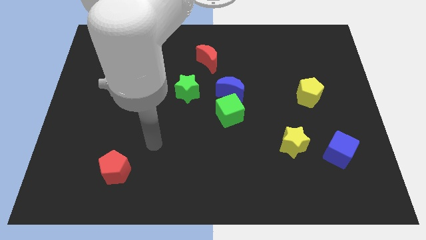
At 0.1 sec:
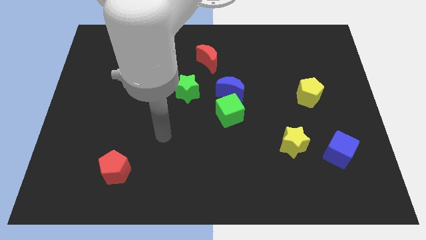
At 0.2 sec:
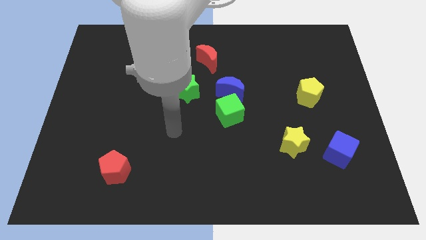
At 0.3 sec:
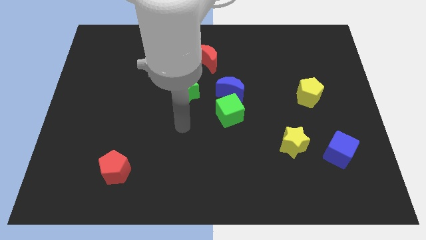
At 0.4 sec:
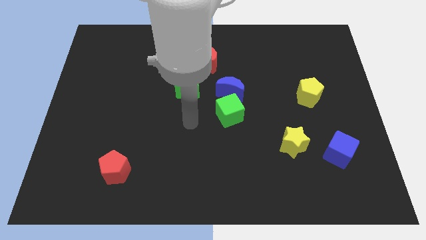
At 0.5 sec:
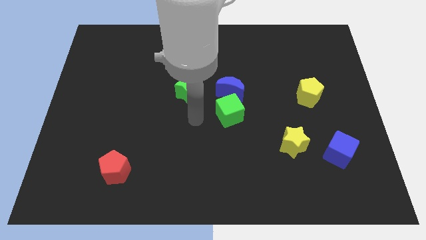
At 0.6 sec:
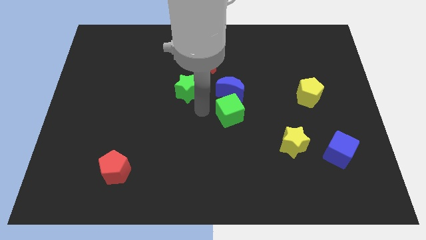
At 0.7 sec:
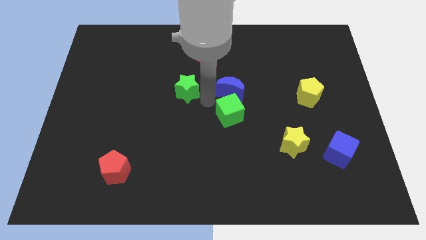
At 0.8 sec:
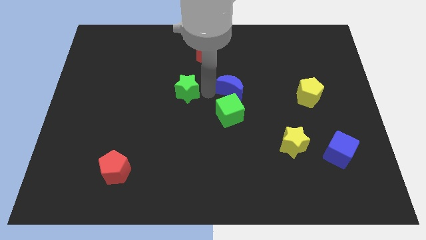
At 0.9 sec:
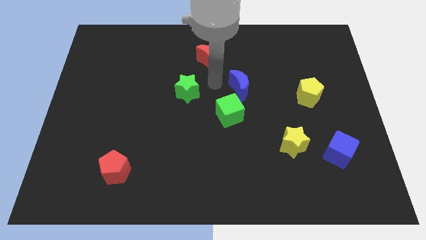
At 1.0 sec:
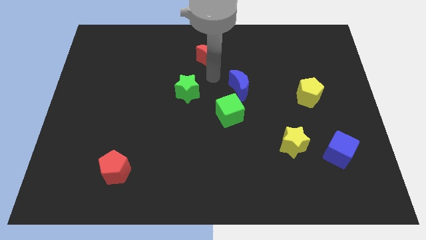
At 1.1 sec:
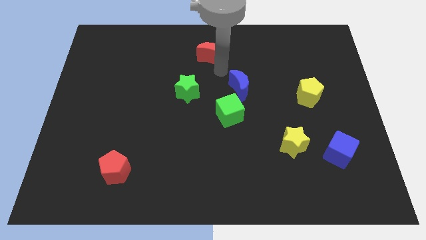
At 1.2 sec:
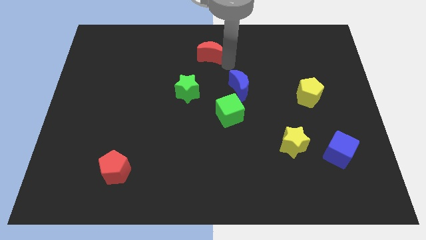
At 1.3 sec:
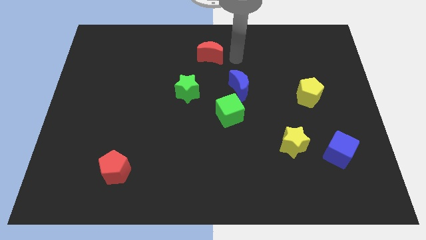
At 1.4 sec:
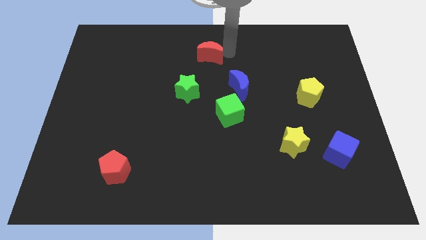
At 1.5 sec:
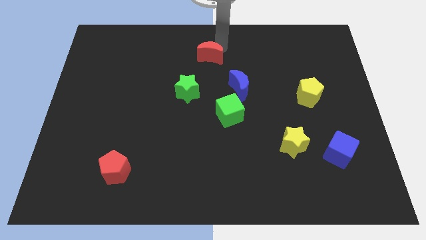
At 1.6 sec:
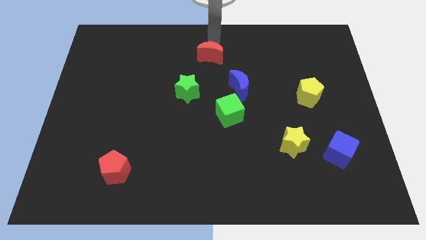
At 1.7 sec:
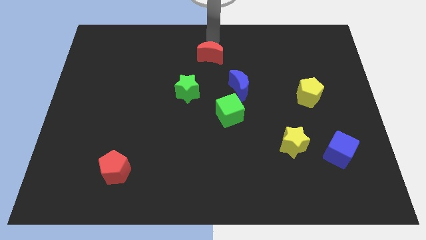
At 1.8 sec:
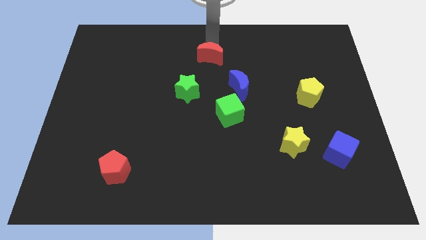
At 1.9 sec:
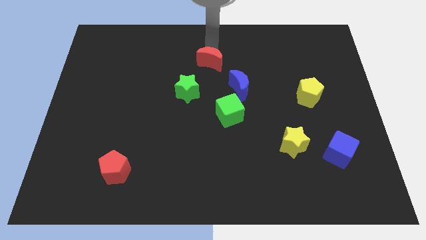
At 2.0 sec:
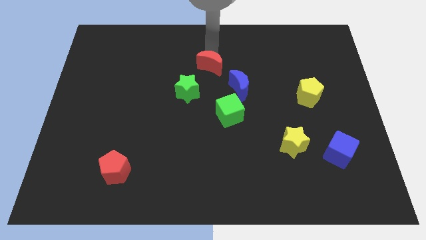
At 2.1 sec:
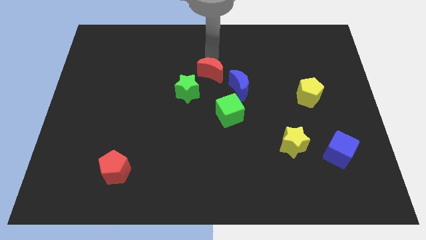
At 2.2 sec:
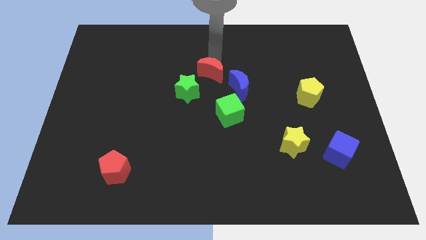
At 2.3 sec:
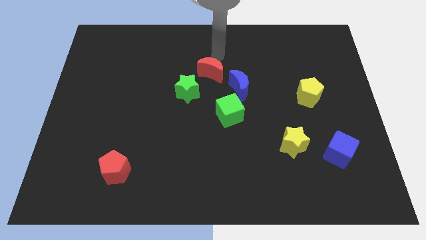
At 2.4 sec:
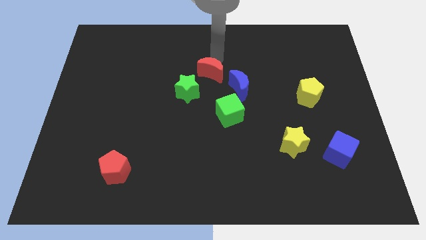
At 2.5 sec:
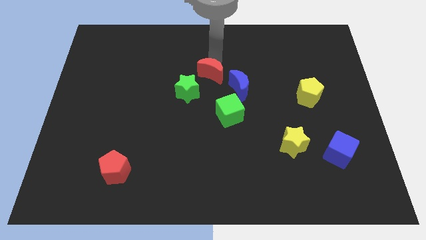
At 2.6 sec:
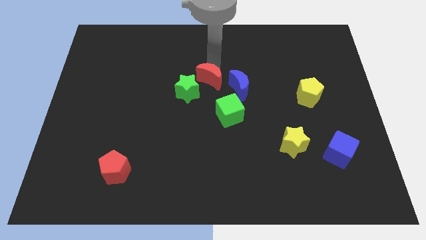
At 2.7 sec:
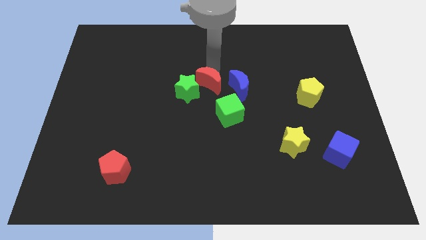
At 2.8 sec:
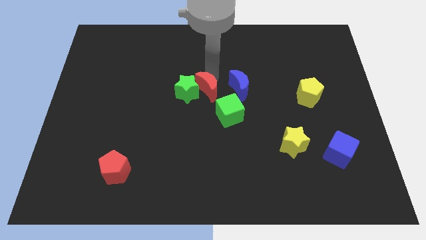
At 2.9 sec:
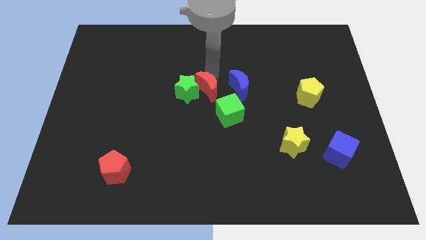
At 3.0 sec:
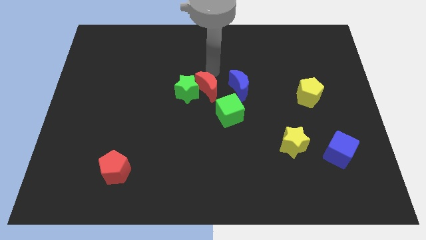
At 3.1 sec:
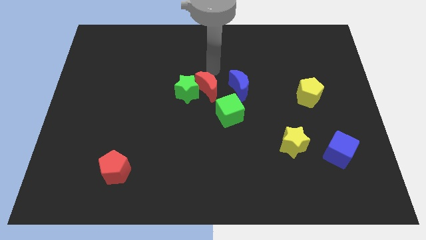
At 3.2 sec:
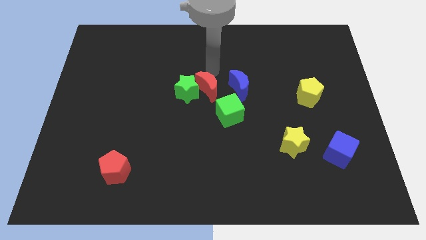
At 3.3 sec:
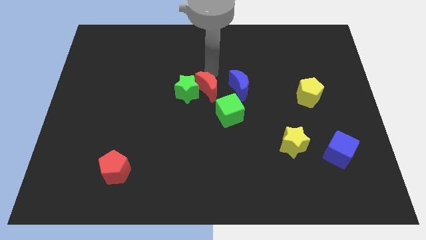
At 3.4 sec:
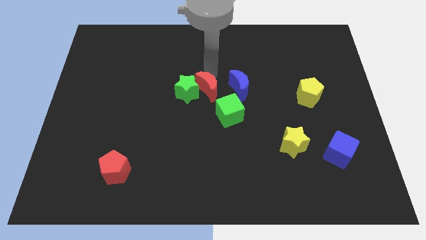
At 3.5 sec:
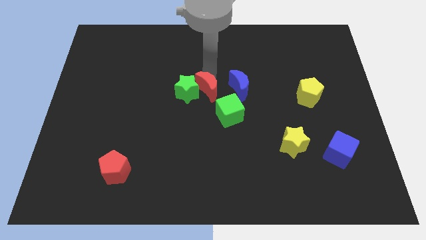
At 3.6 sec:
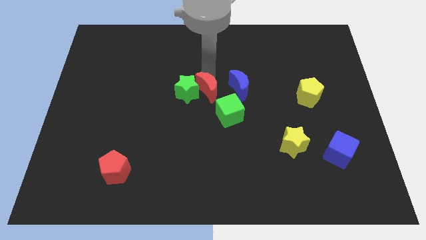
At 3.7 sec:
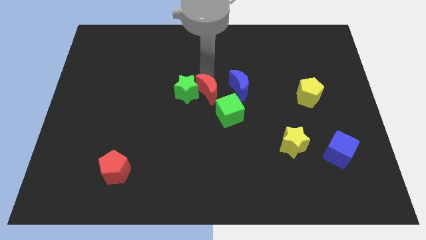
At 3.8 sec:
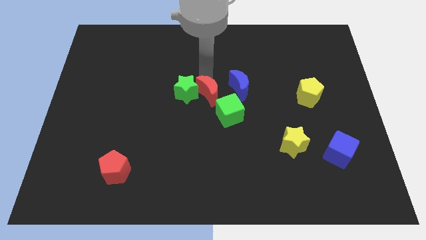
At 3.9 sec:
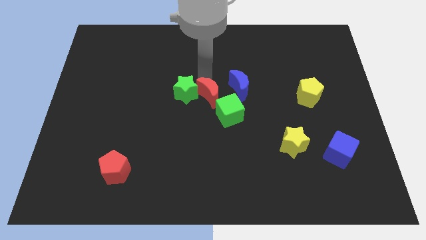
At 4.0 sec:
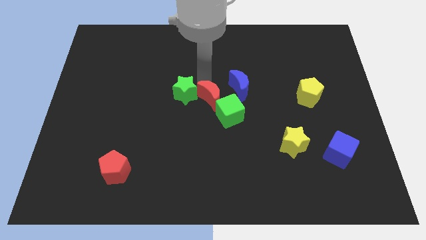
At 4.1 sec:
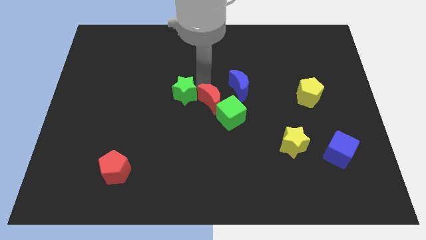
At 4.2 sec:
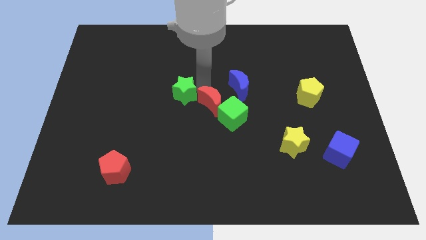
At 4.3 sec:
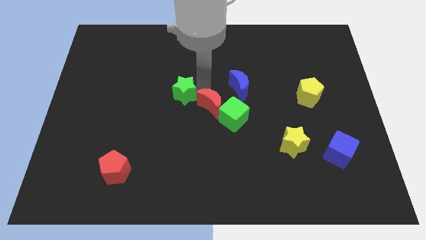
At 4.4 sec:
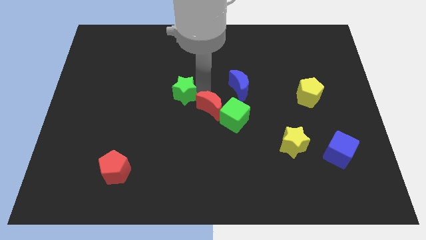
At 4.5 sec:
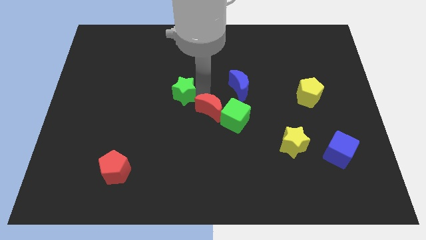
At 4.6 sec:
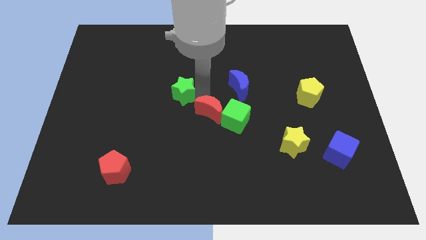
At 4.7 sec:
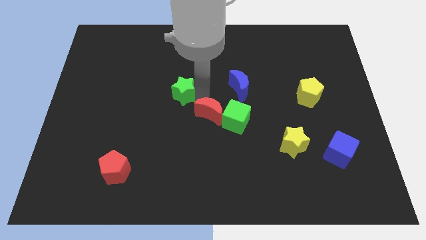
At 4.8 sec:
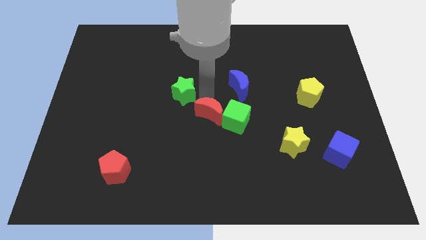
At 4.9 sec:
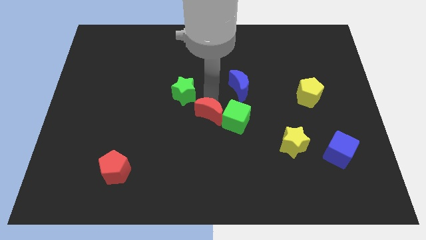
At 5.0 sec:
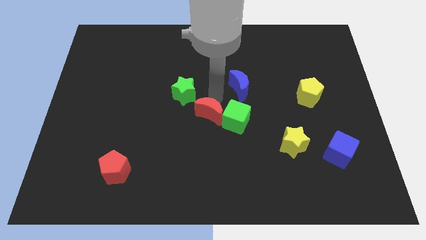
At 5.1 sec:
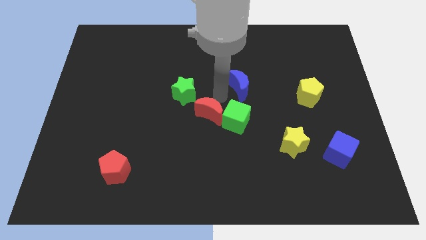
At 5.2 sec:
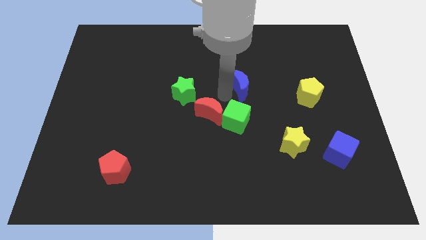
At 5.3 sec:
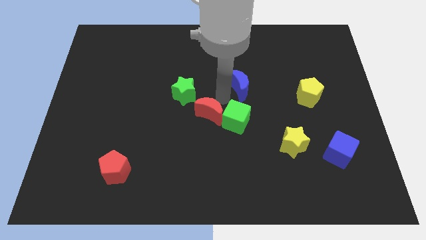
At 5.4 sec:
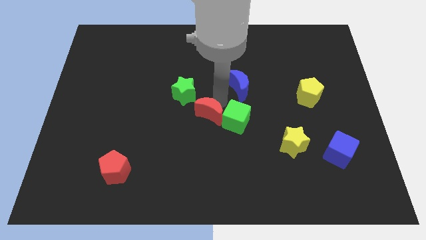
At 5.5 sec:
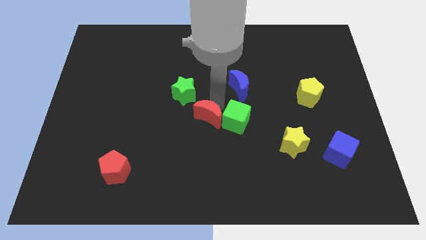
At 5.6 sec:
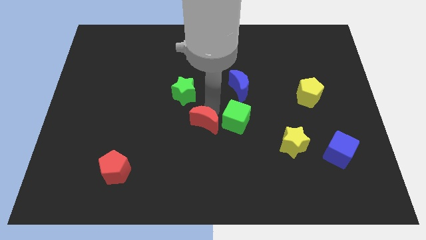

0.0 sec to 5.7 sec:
slide the red moon down

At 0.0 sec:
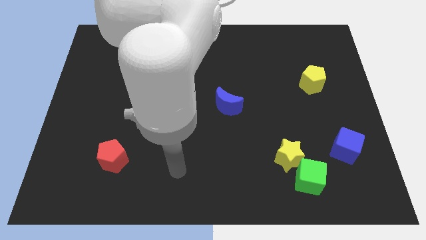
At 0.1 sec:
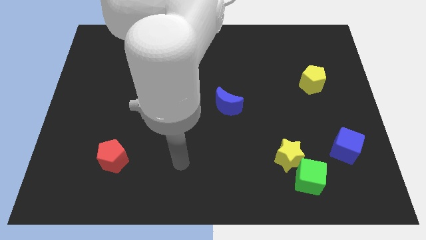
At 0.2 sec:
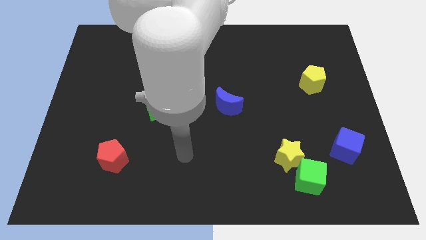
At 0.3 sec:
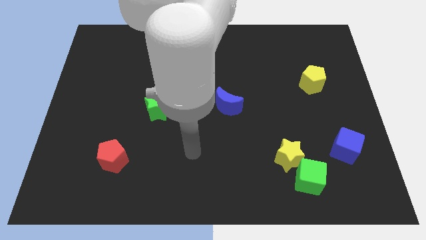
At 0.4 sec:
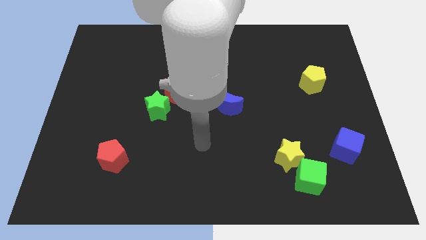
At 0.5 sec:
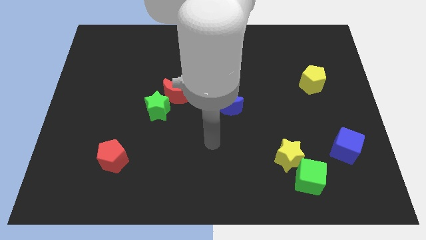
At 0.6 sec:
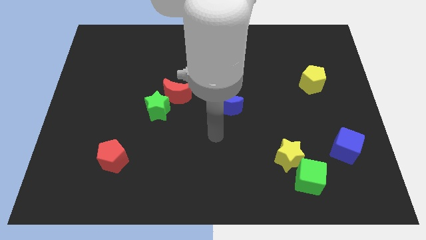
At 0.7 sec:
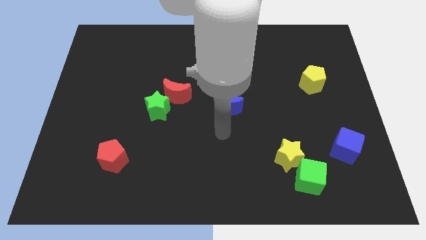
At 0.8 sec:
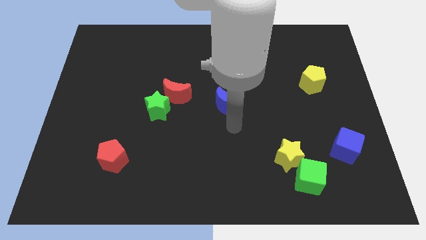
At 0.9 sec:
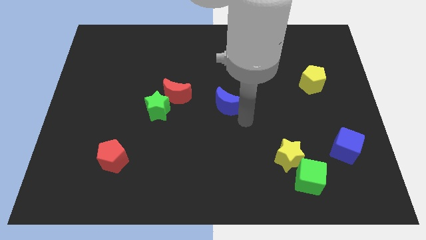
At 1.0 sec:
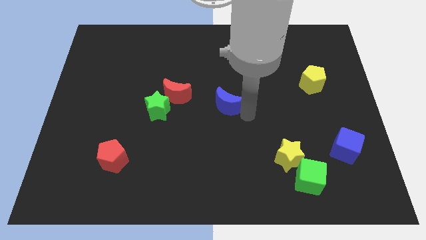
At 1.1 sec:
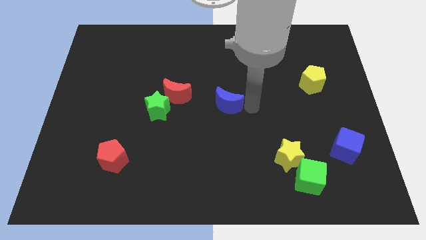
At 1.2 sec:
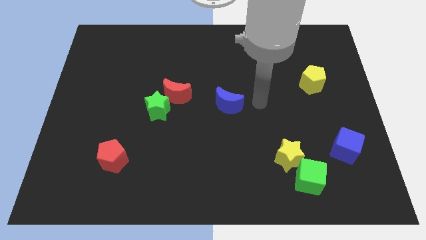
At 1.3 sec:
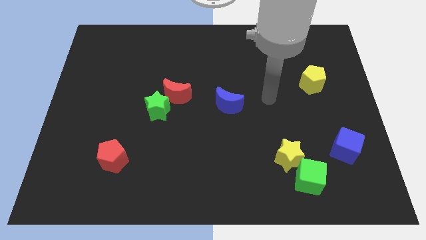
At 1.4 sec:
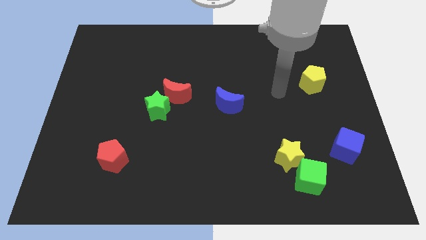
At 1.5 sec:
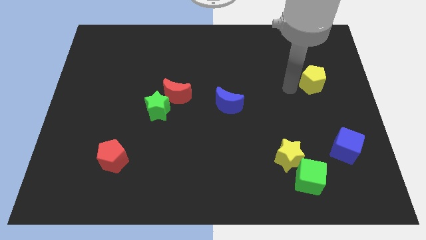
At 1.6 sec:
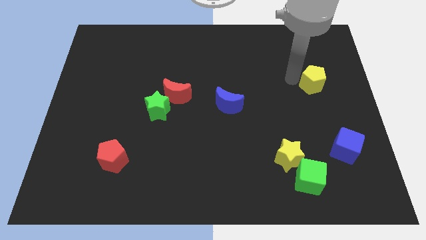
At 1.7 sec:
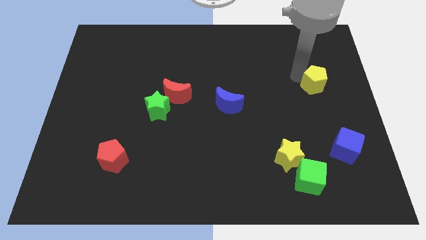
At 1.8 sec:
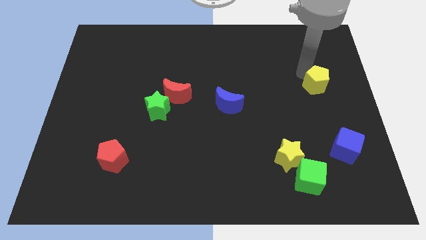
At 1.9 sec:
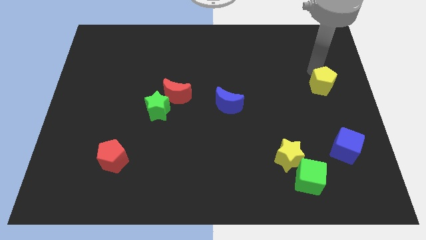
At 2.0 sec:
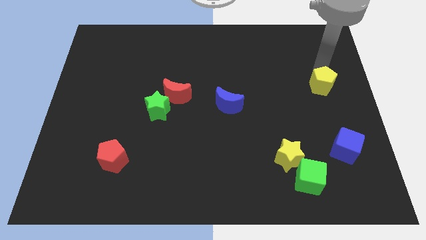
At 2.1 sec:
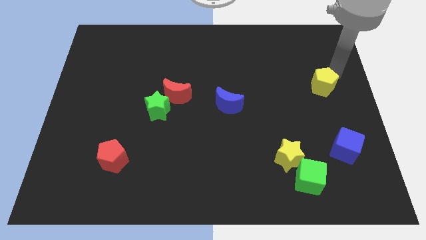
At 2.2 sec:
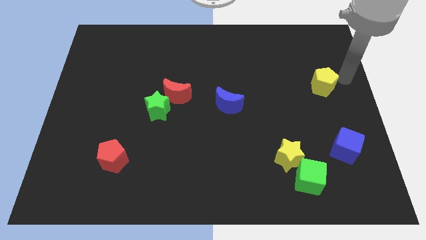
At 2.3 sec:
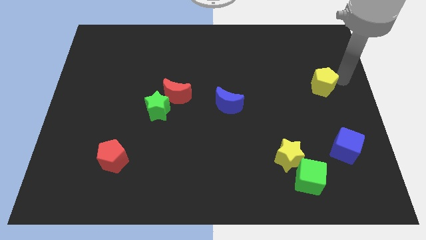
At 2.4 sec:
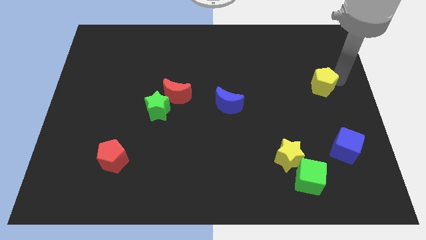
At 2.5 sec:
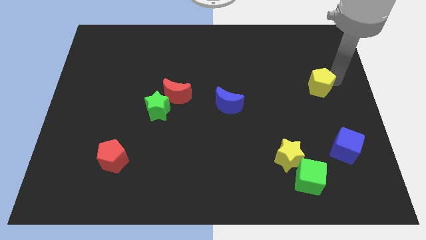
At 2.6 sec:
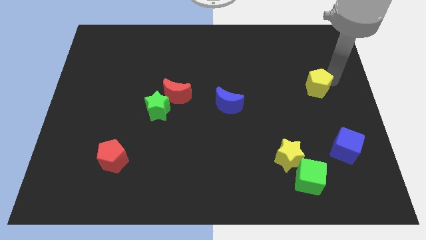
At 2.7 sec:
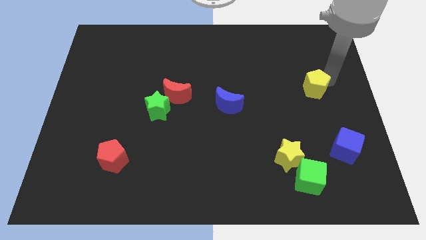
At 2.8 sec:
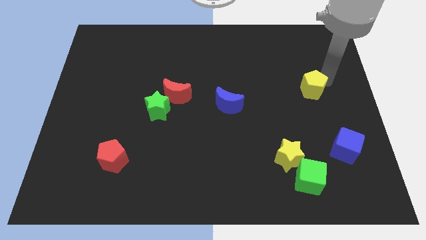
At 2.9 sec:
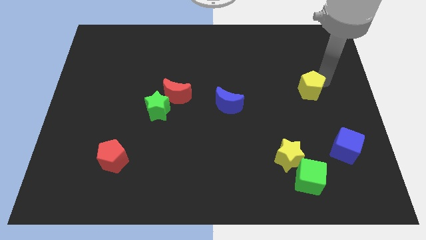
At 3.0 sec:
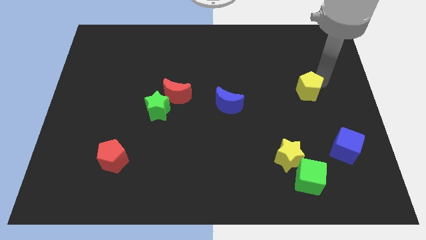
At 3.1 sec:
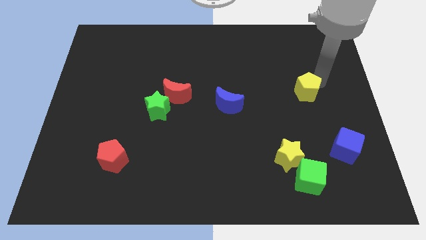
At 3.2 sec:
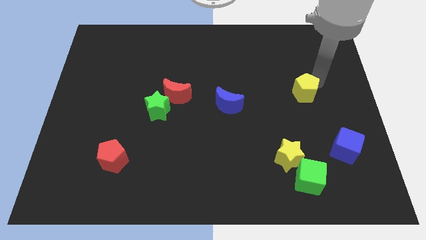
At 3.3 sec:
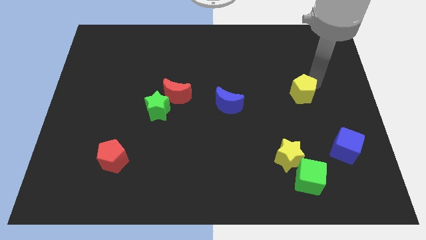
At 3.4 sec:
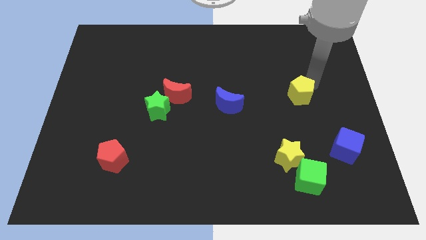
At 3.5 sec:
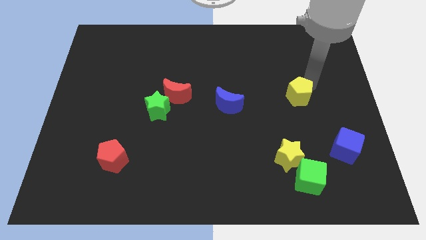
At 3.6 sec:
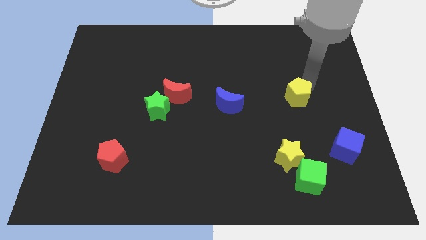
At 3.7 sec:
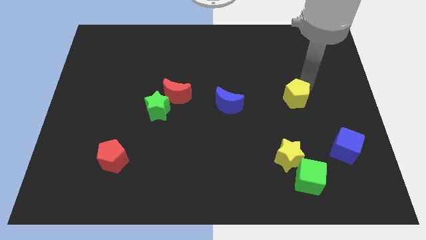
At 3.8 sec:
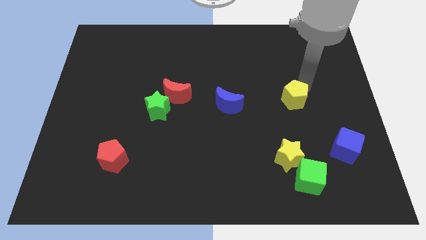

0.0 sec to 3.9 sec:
move the yellow pentagon somewhat down and then to the left
